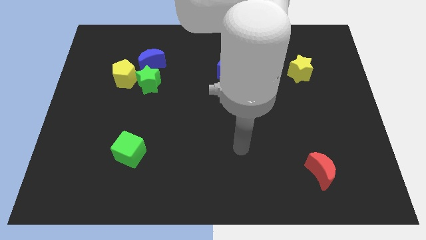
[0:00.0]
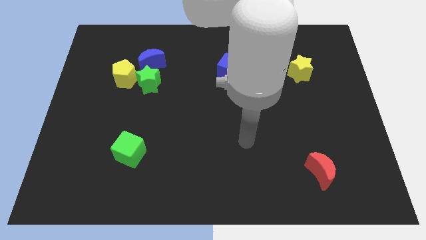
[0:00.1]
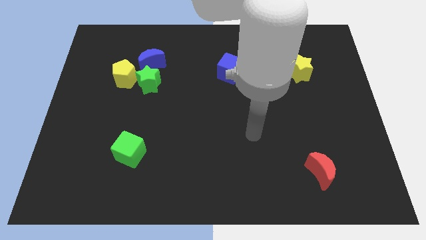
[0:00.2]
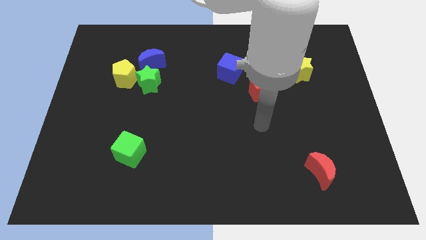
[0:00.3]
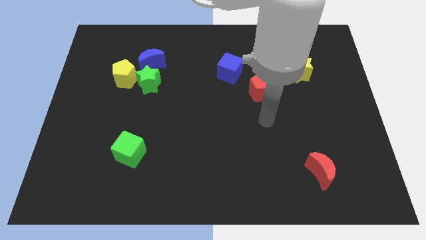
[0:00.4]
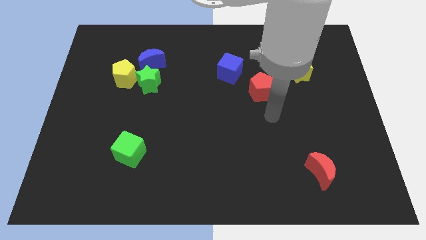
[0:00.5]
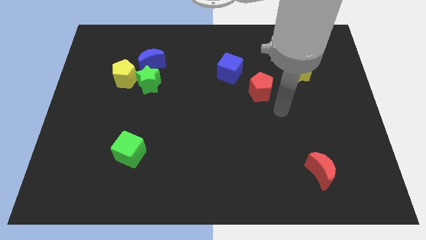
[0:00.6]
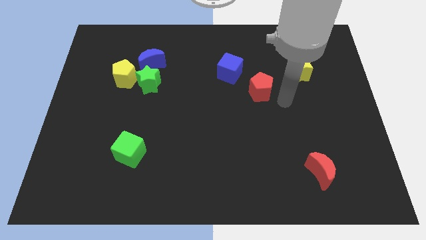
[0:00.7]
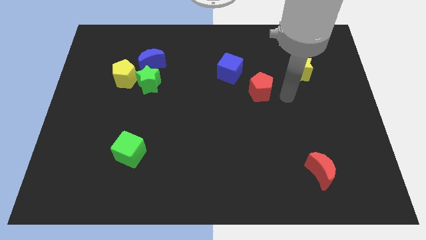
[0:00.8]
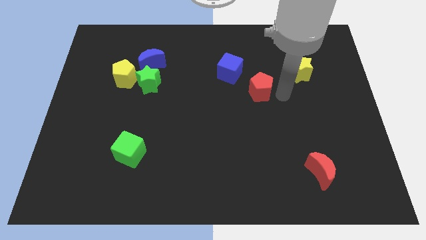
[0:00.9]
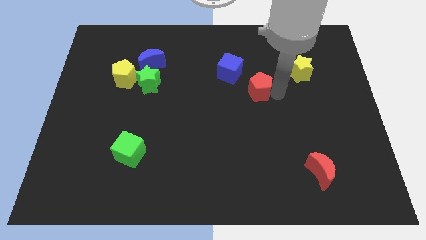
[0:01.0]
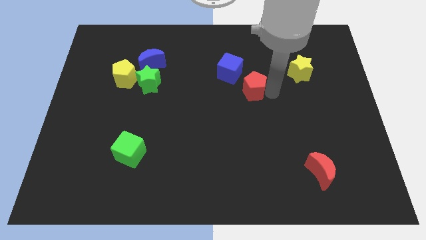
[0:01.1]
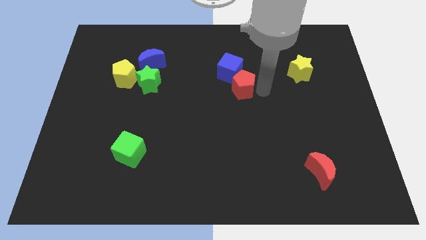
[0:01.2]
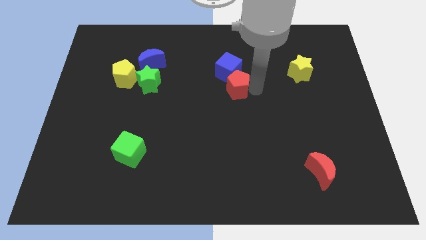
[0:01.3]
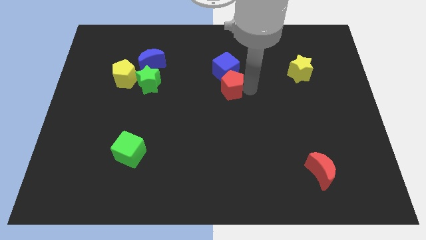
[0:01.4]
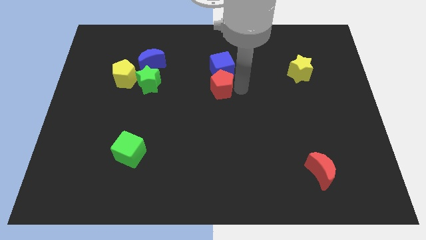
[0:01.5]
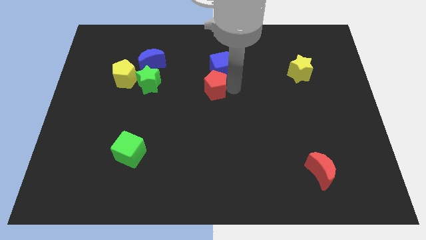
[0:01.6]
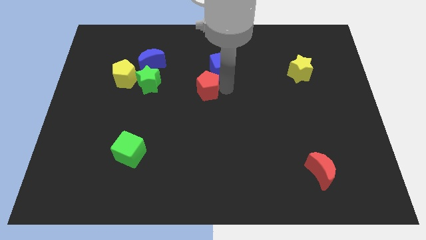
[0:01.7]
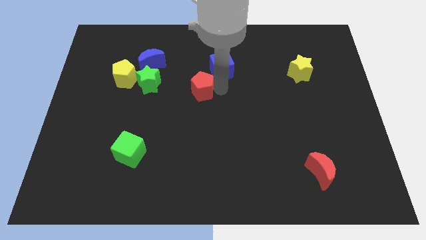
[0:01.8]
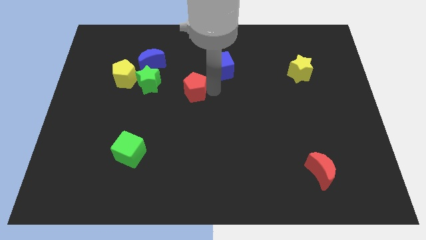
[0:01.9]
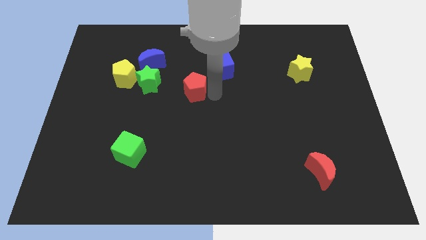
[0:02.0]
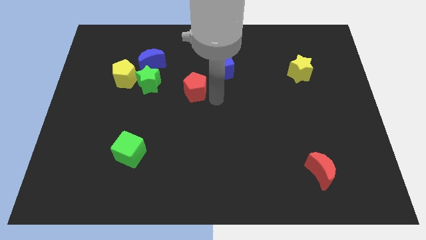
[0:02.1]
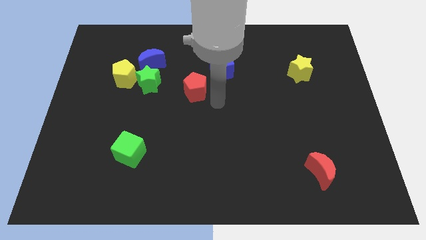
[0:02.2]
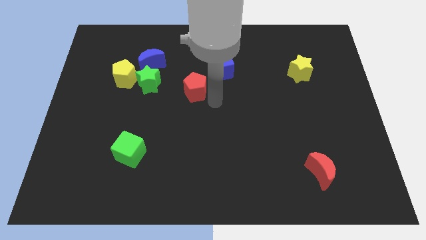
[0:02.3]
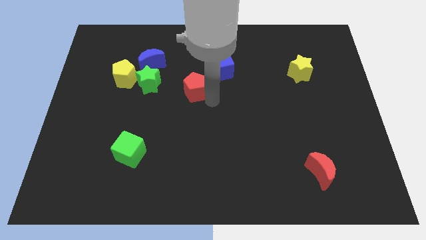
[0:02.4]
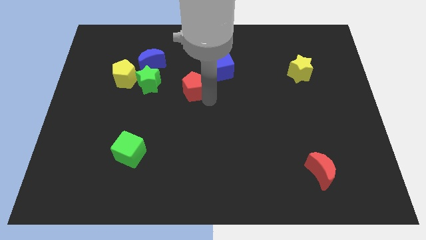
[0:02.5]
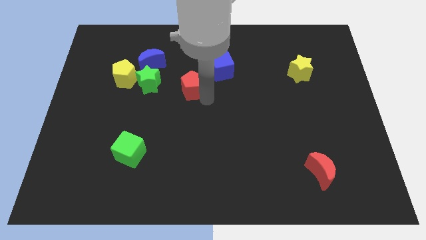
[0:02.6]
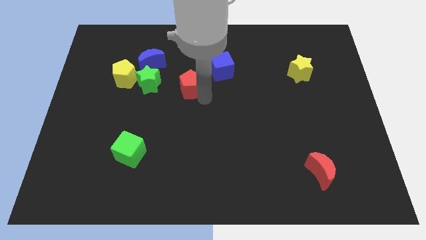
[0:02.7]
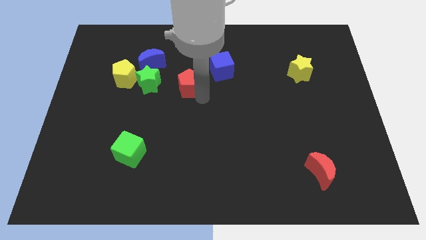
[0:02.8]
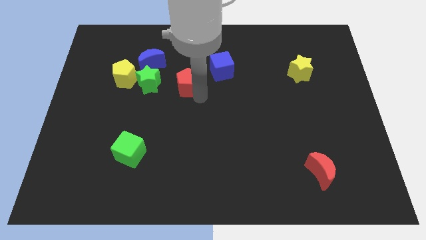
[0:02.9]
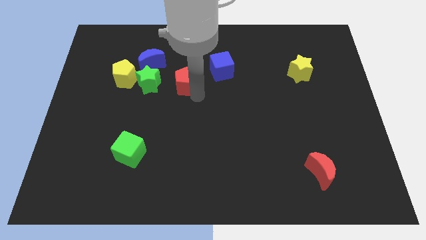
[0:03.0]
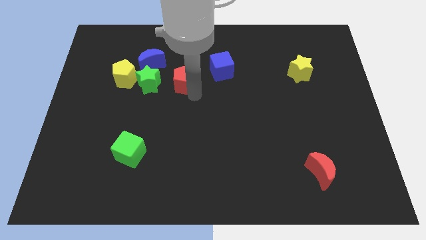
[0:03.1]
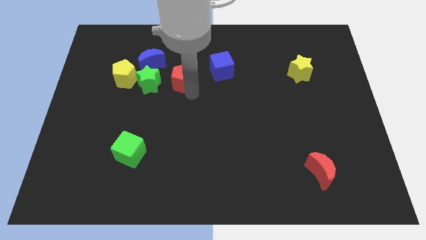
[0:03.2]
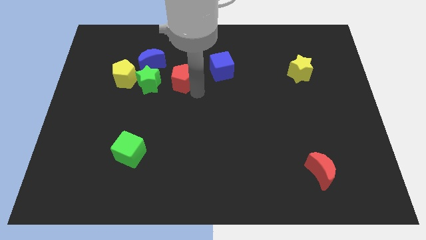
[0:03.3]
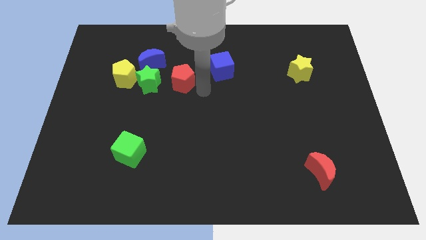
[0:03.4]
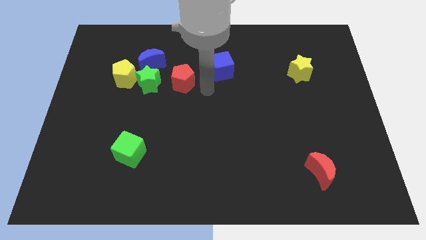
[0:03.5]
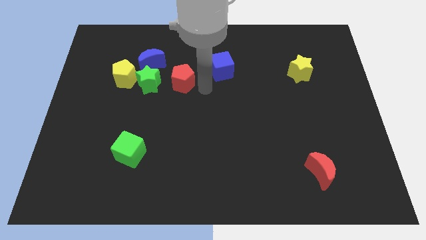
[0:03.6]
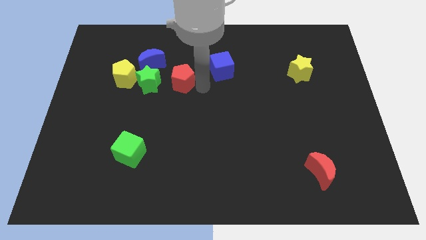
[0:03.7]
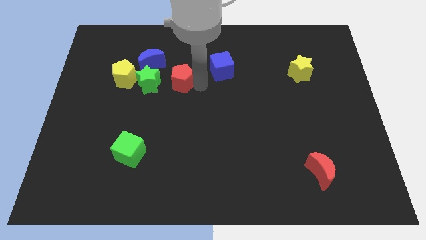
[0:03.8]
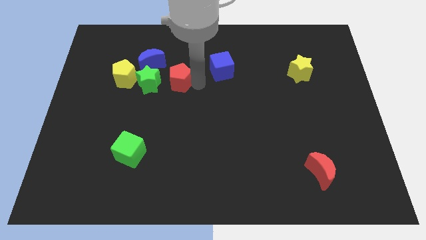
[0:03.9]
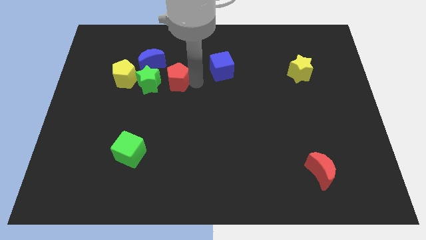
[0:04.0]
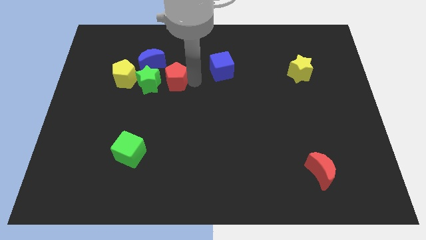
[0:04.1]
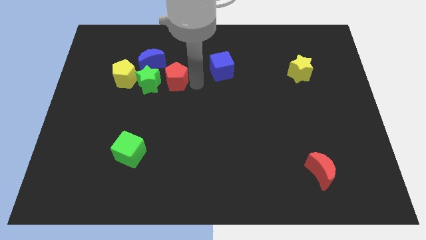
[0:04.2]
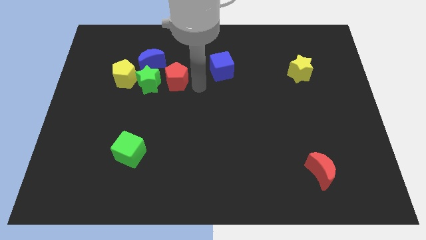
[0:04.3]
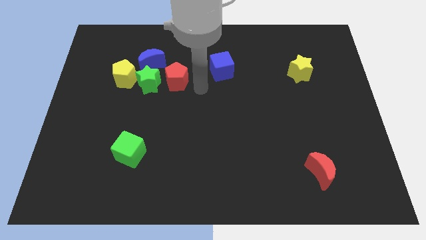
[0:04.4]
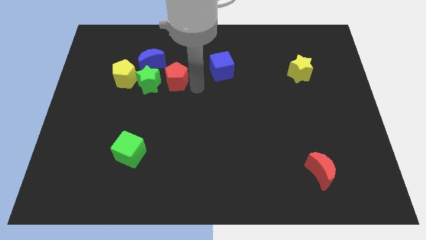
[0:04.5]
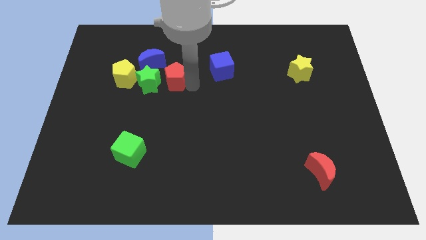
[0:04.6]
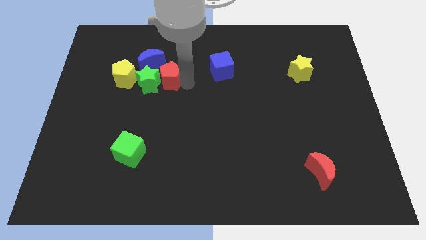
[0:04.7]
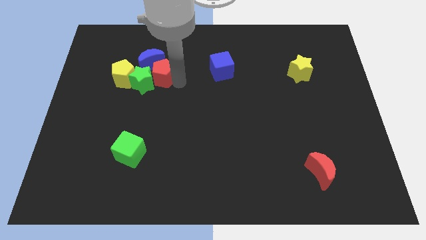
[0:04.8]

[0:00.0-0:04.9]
move the red pentagon to the blue moon

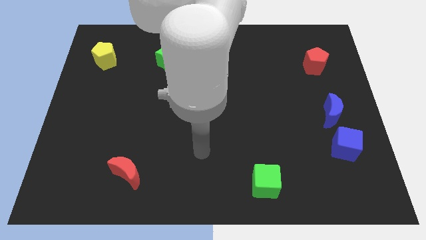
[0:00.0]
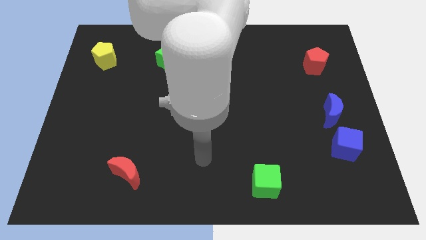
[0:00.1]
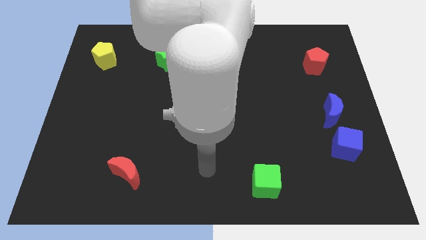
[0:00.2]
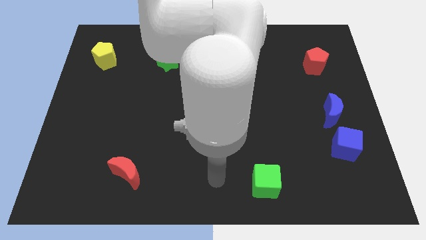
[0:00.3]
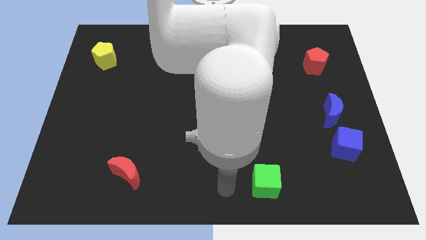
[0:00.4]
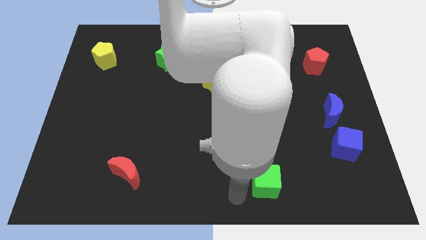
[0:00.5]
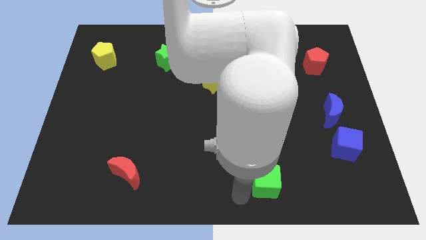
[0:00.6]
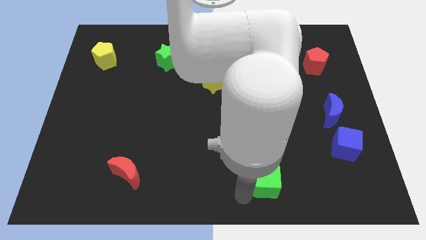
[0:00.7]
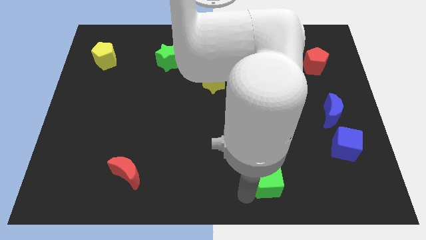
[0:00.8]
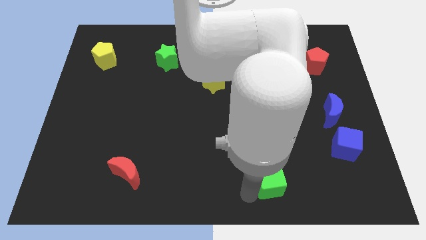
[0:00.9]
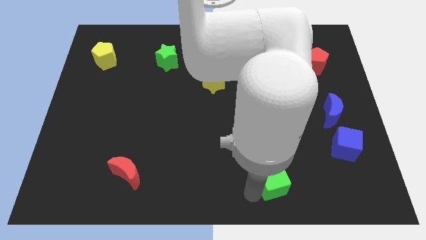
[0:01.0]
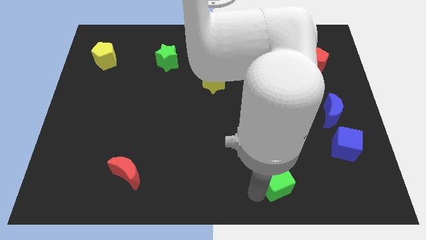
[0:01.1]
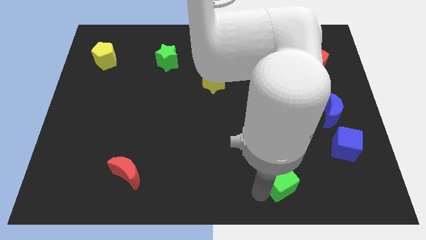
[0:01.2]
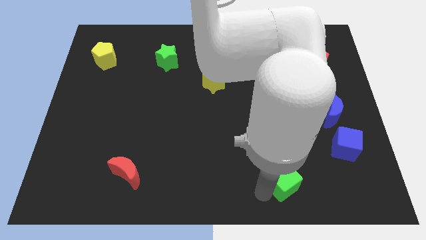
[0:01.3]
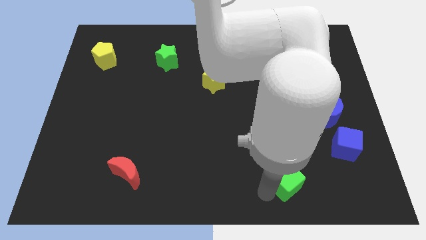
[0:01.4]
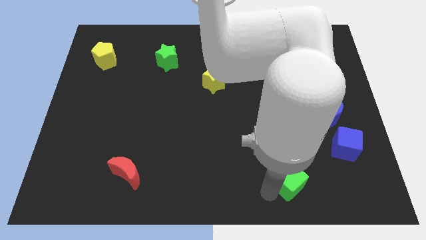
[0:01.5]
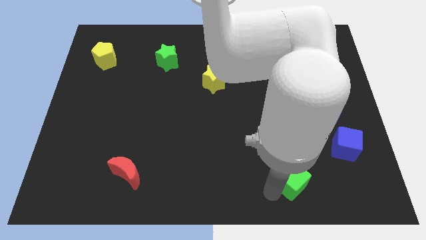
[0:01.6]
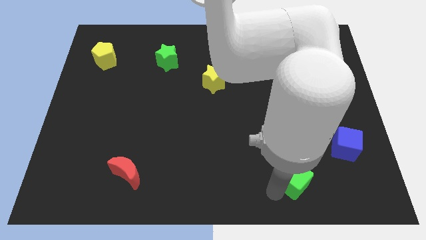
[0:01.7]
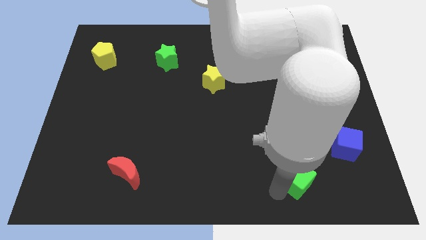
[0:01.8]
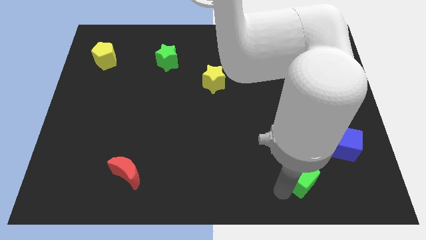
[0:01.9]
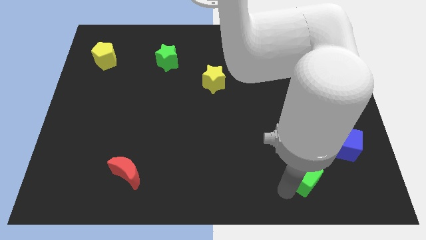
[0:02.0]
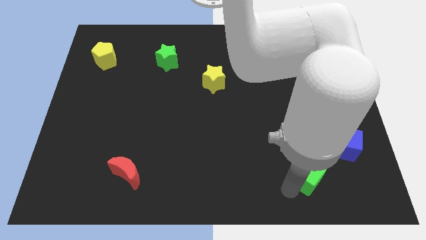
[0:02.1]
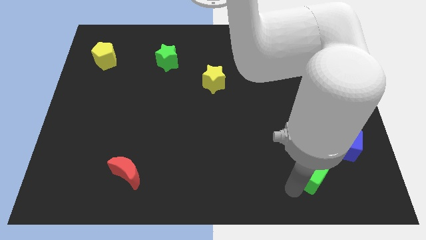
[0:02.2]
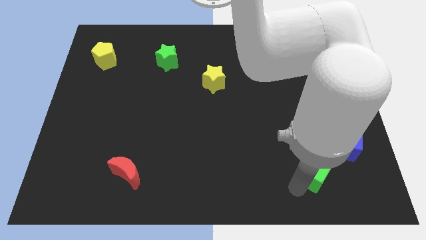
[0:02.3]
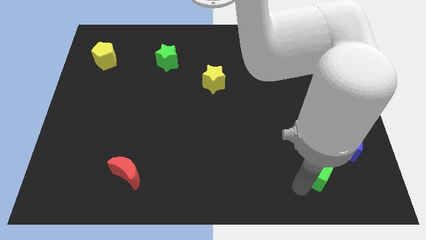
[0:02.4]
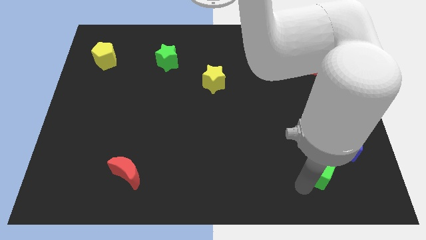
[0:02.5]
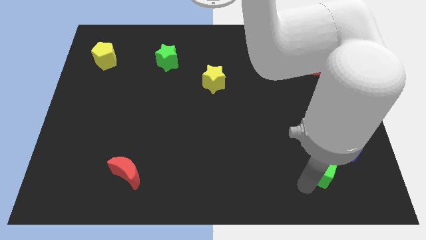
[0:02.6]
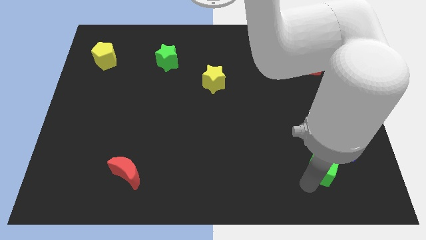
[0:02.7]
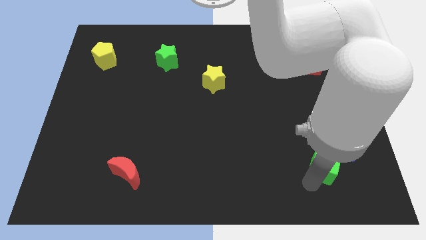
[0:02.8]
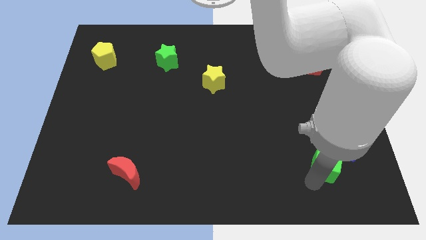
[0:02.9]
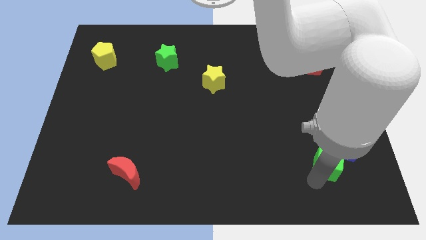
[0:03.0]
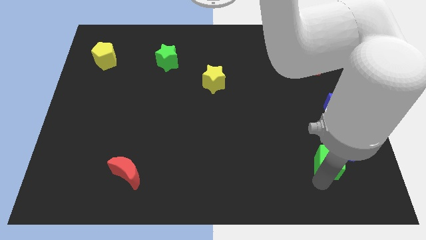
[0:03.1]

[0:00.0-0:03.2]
push the green cube towards the blue cube
